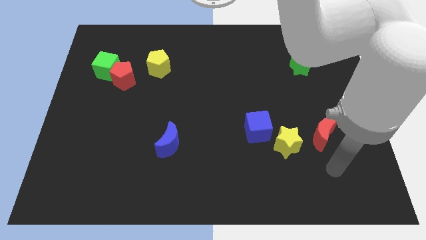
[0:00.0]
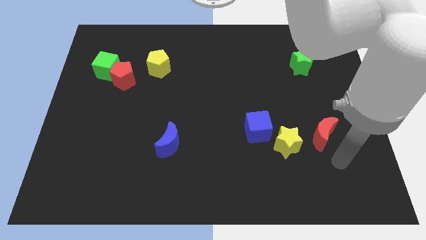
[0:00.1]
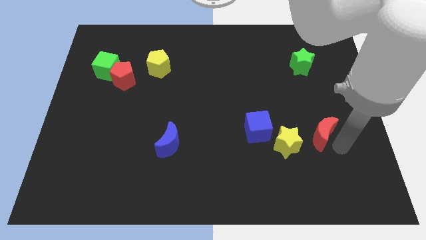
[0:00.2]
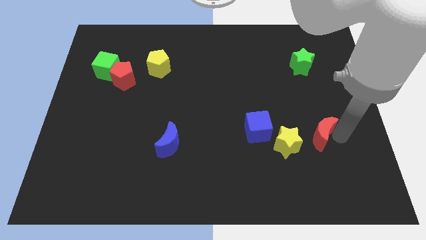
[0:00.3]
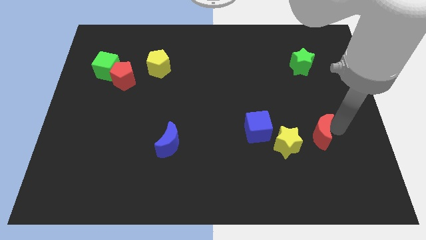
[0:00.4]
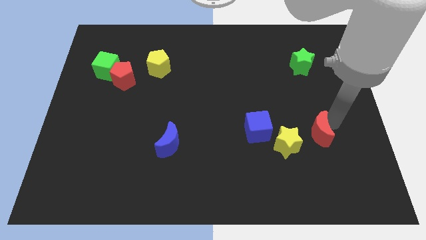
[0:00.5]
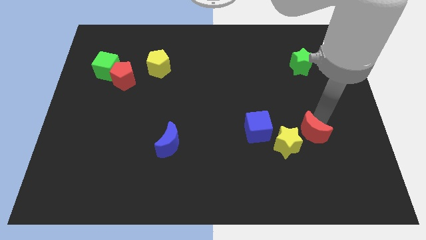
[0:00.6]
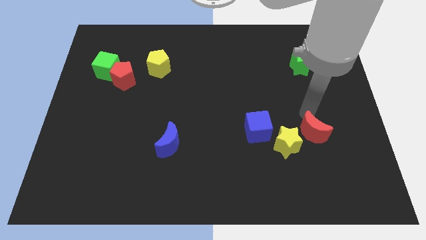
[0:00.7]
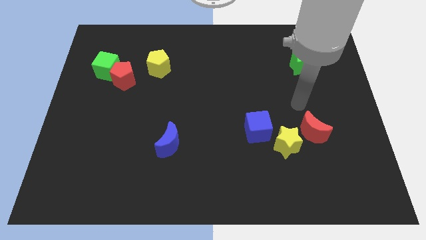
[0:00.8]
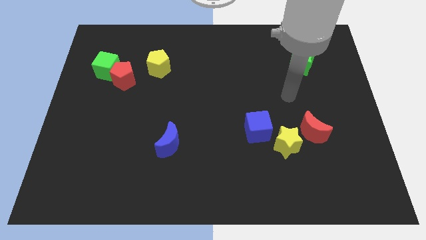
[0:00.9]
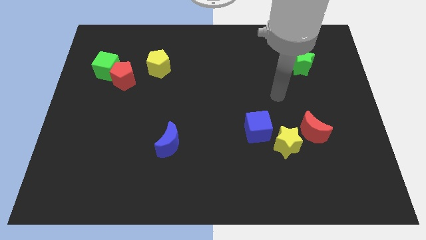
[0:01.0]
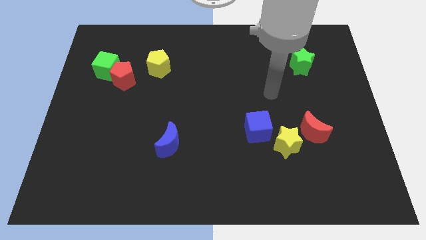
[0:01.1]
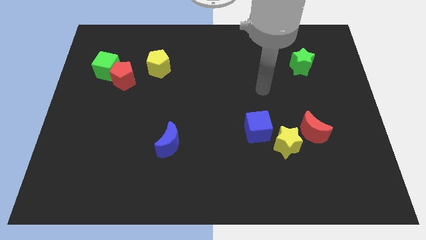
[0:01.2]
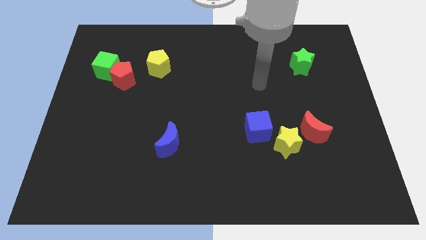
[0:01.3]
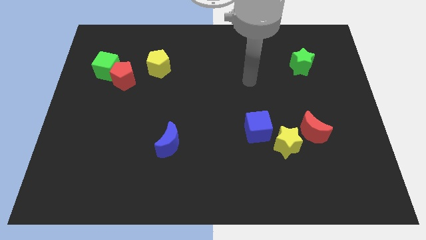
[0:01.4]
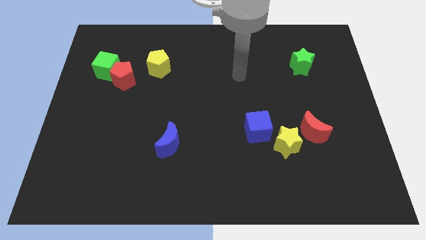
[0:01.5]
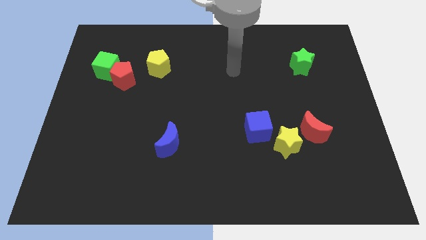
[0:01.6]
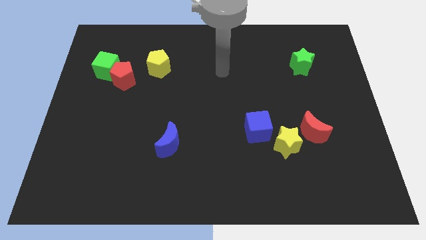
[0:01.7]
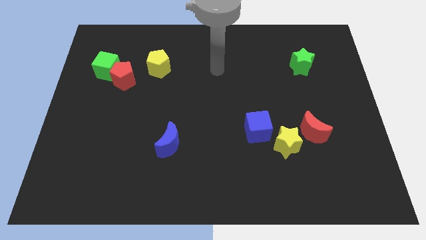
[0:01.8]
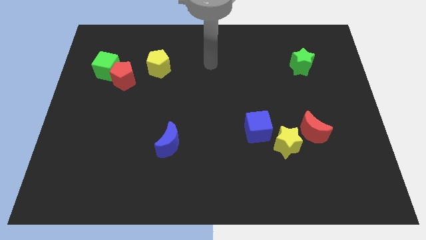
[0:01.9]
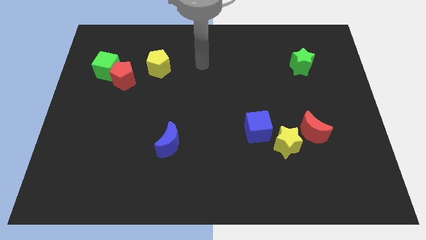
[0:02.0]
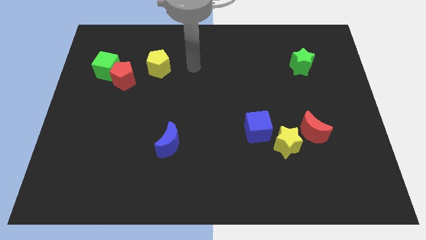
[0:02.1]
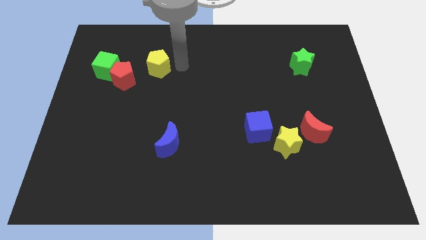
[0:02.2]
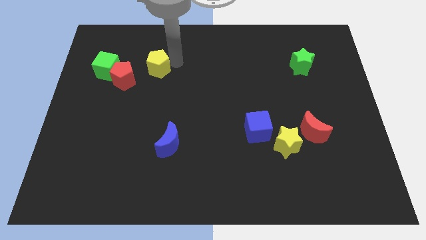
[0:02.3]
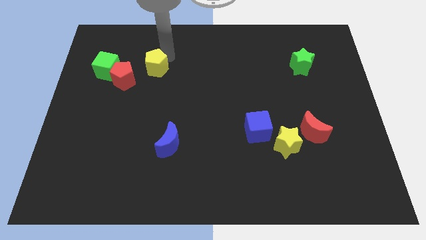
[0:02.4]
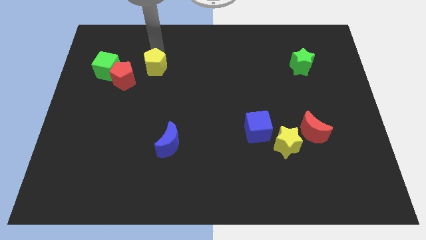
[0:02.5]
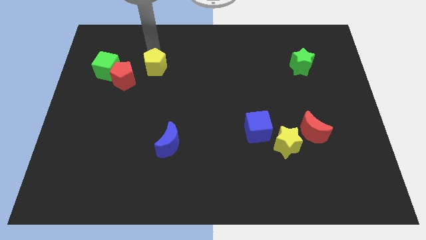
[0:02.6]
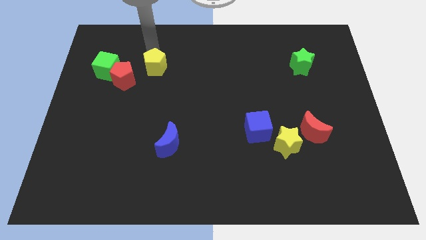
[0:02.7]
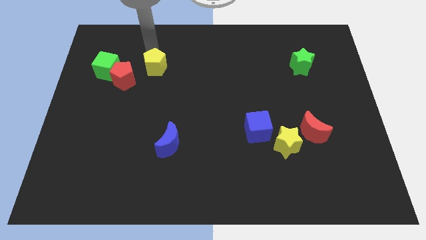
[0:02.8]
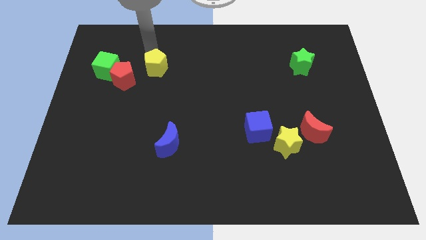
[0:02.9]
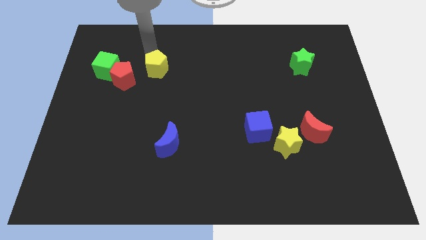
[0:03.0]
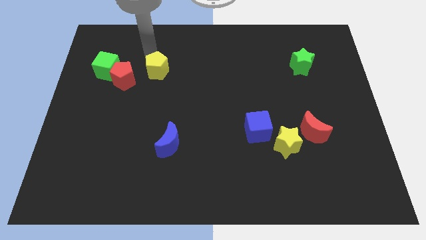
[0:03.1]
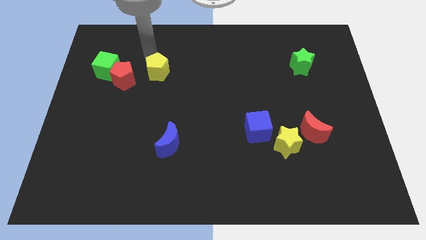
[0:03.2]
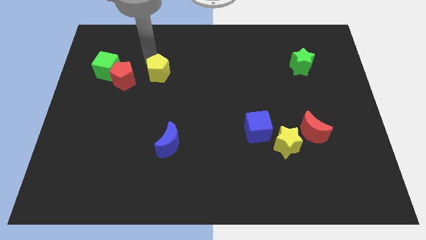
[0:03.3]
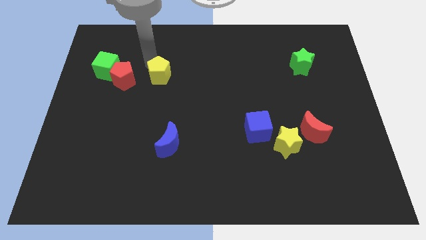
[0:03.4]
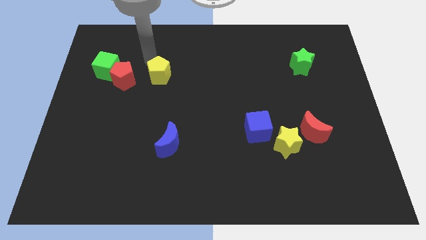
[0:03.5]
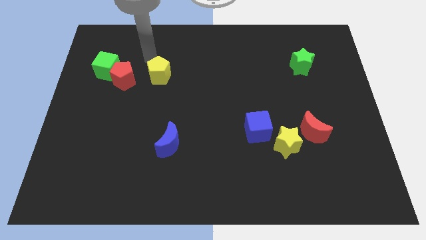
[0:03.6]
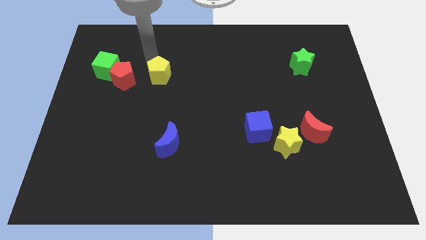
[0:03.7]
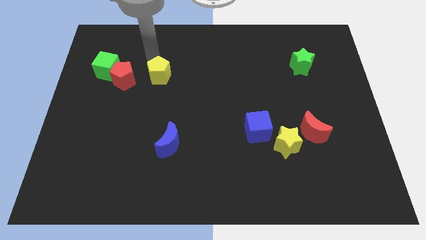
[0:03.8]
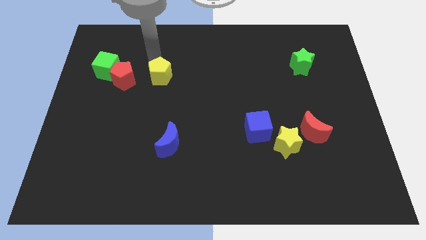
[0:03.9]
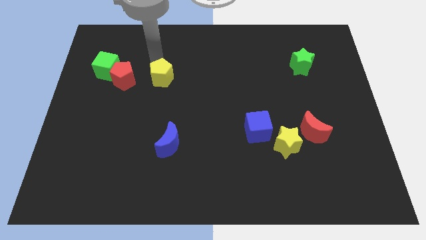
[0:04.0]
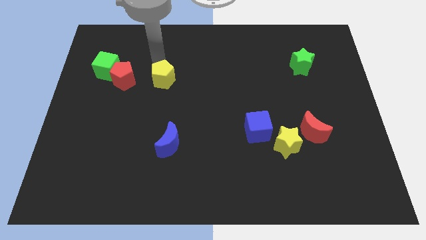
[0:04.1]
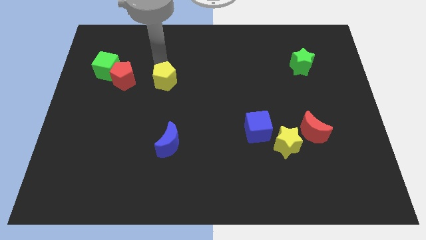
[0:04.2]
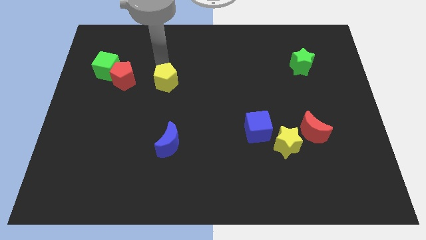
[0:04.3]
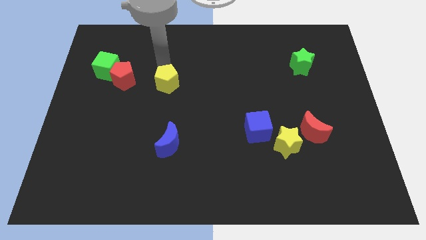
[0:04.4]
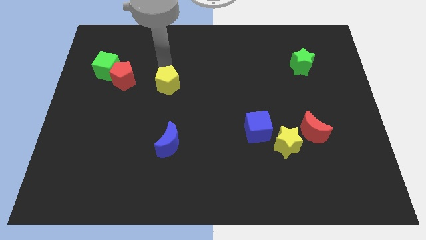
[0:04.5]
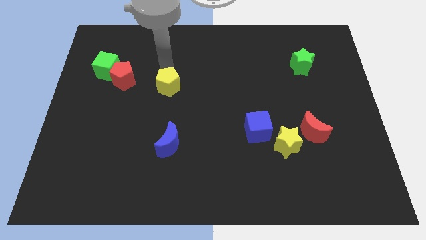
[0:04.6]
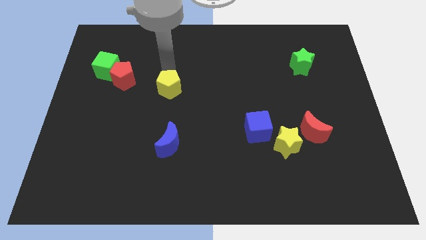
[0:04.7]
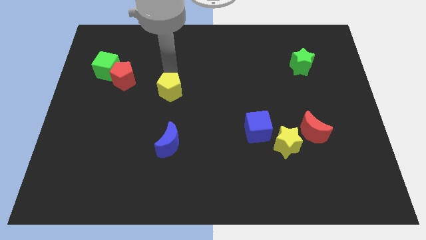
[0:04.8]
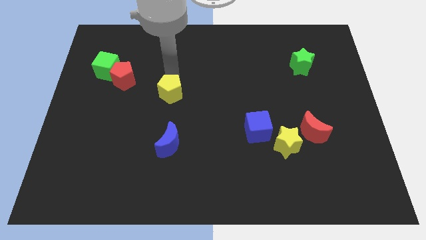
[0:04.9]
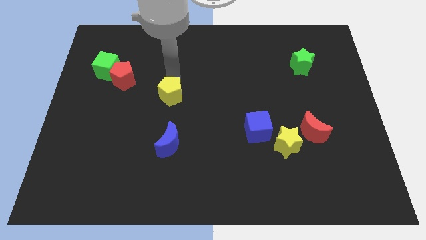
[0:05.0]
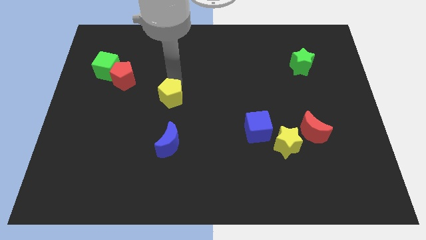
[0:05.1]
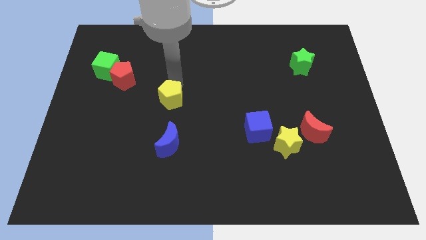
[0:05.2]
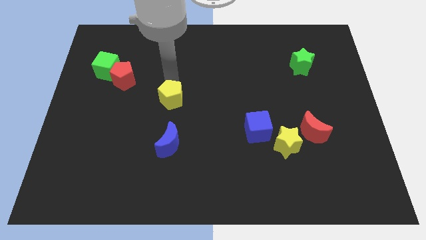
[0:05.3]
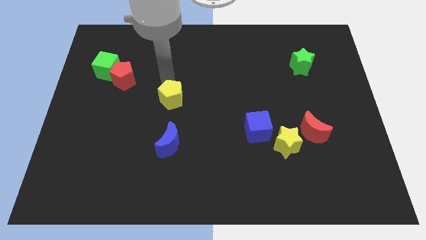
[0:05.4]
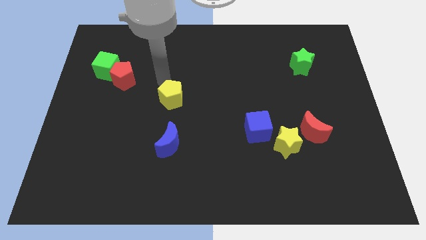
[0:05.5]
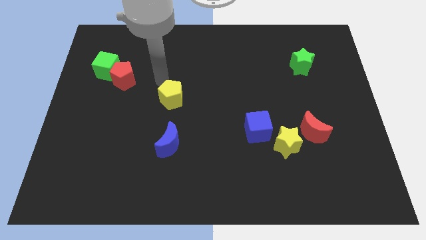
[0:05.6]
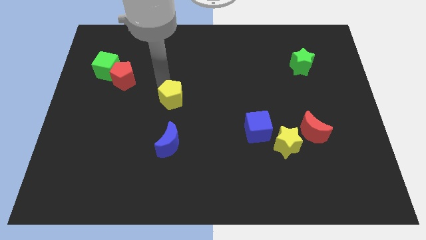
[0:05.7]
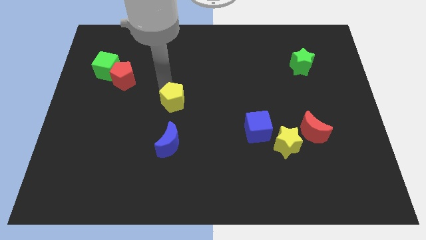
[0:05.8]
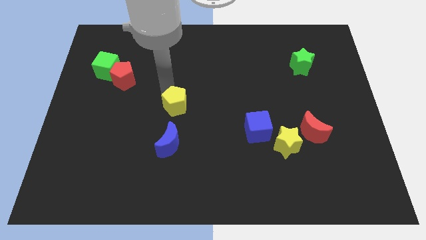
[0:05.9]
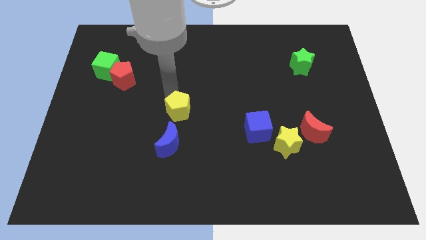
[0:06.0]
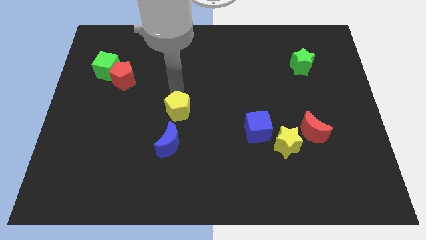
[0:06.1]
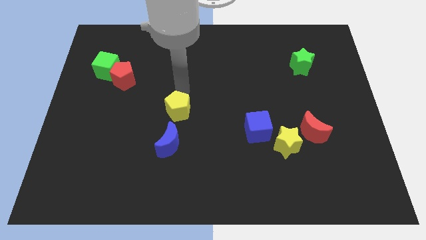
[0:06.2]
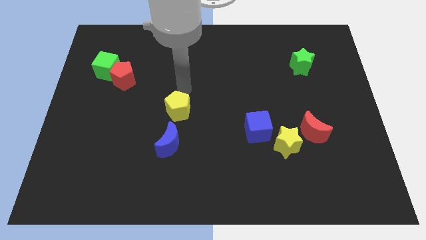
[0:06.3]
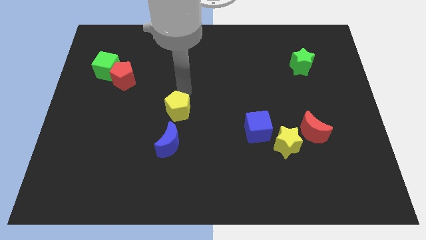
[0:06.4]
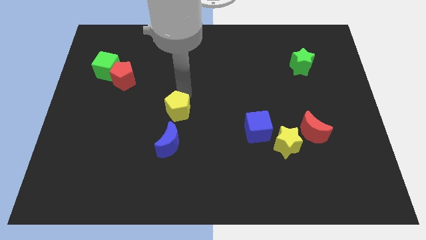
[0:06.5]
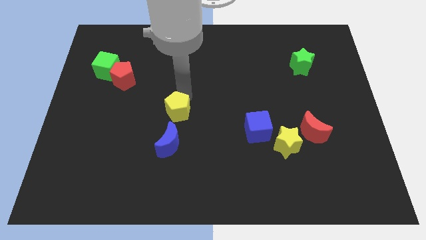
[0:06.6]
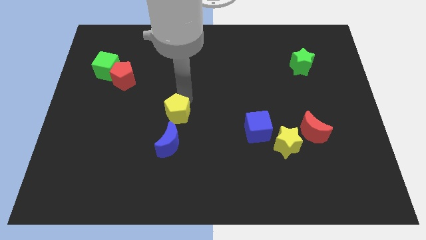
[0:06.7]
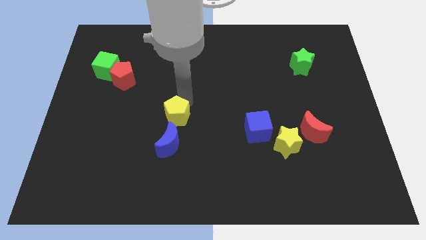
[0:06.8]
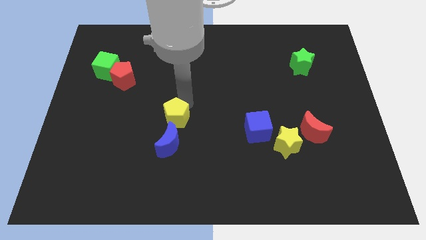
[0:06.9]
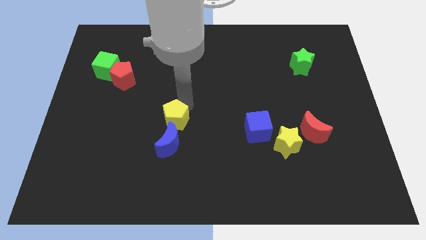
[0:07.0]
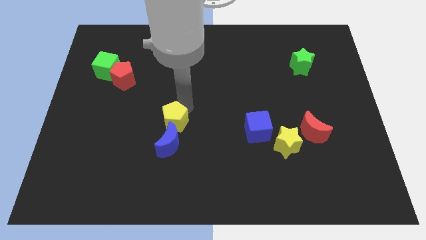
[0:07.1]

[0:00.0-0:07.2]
push the yellow pentagon towards the blue moon
